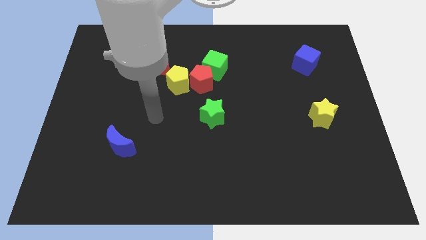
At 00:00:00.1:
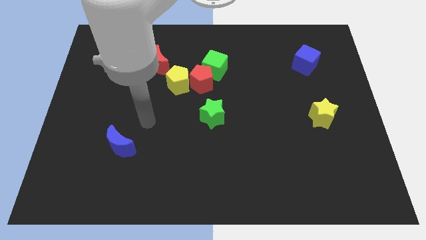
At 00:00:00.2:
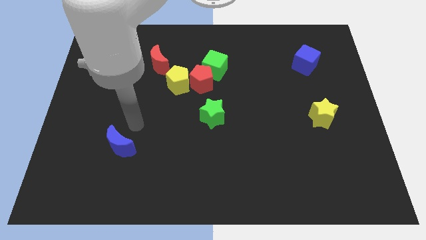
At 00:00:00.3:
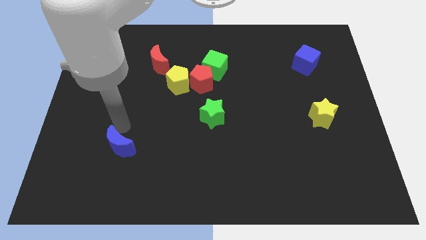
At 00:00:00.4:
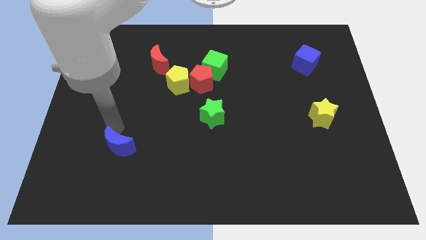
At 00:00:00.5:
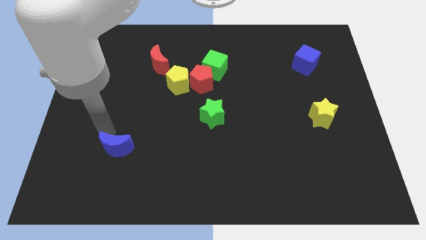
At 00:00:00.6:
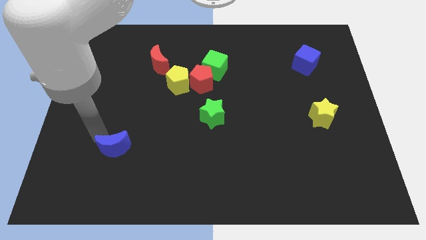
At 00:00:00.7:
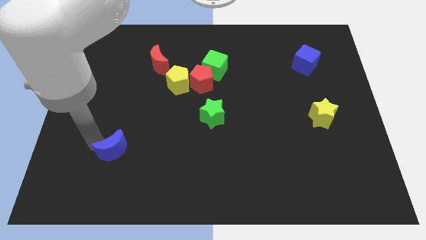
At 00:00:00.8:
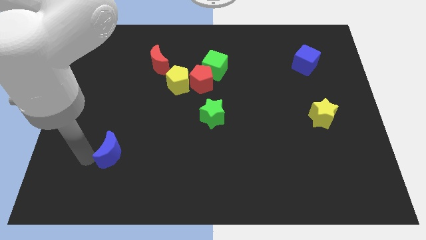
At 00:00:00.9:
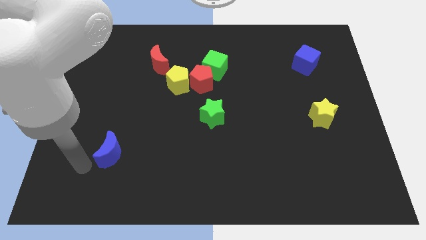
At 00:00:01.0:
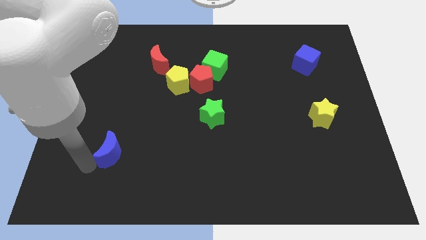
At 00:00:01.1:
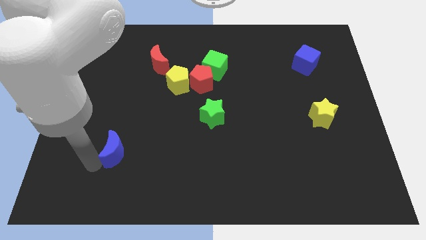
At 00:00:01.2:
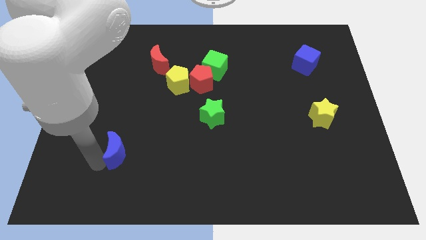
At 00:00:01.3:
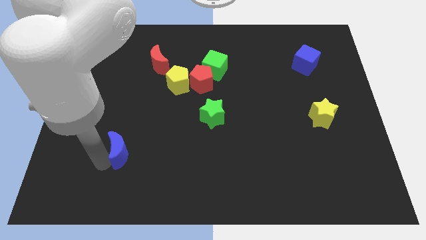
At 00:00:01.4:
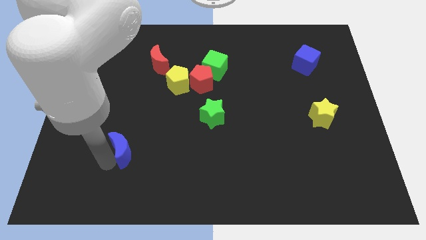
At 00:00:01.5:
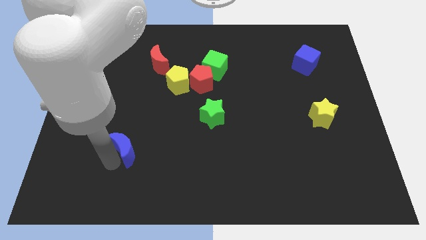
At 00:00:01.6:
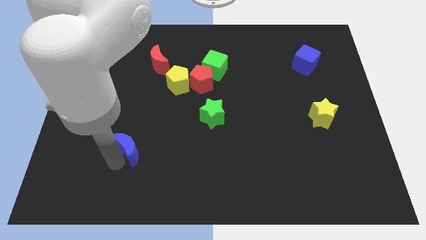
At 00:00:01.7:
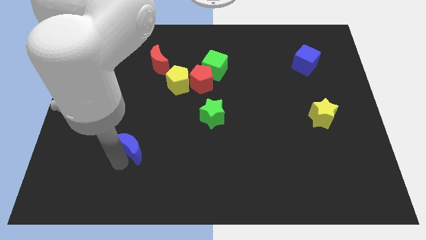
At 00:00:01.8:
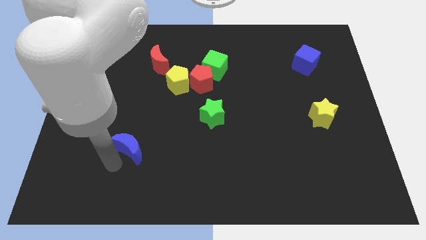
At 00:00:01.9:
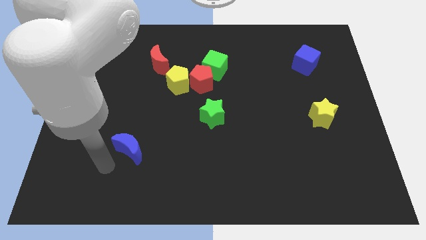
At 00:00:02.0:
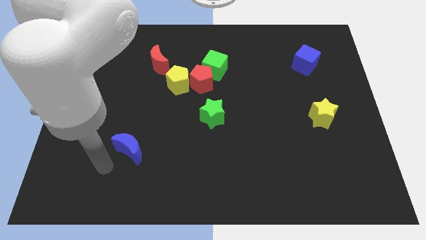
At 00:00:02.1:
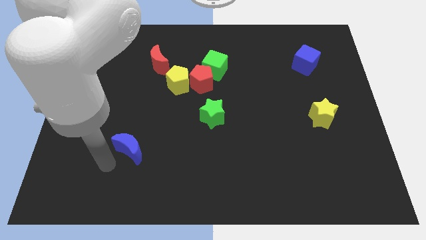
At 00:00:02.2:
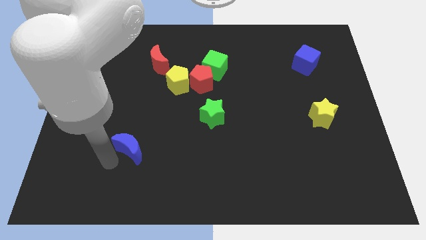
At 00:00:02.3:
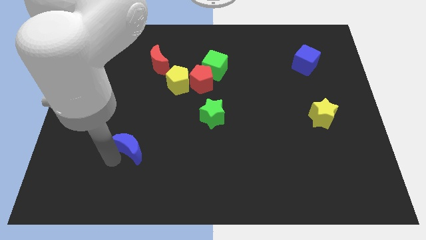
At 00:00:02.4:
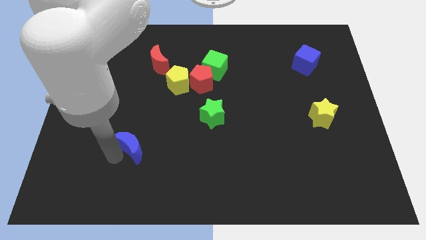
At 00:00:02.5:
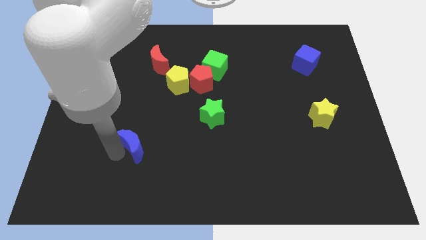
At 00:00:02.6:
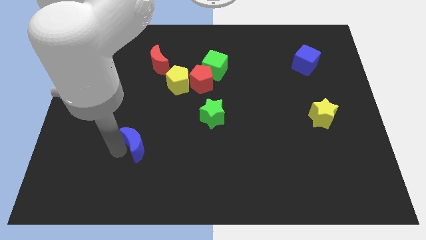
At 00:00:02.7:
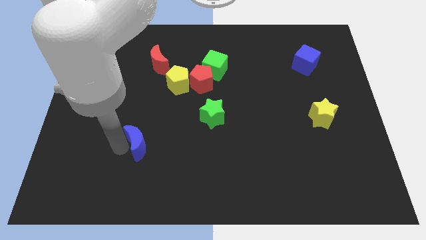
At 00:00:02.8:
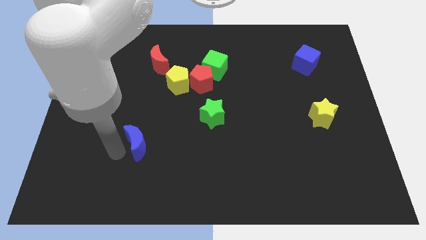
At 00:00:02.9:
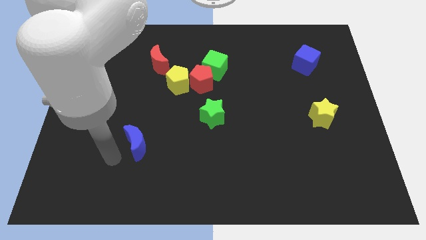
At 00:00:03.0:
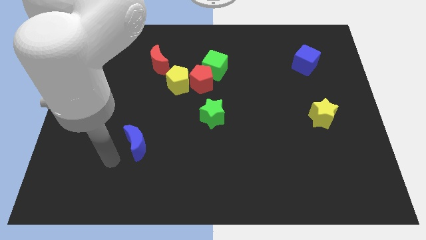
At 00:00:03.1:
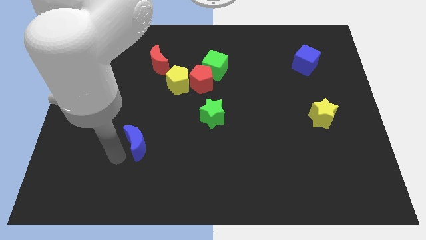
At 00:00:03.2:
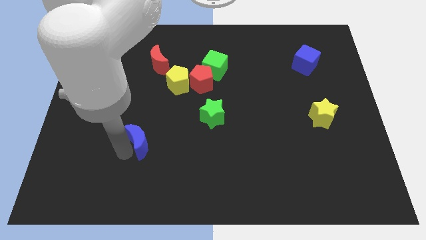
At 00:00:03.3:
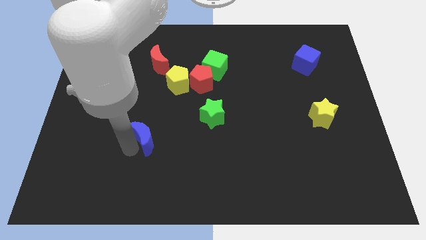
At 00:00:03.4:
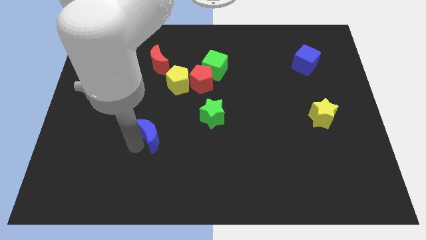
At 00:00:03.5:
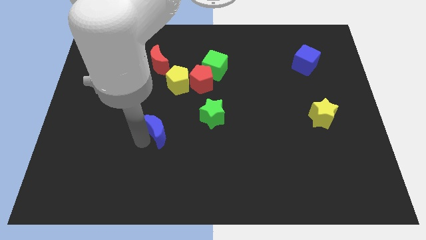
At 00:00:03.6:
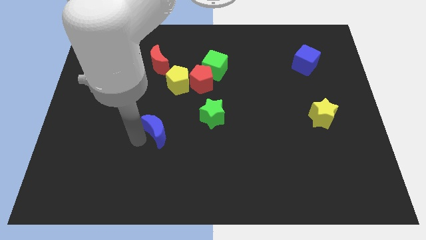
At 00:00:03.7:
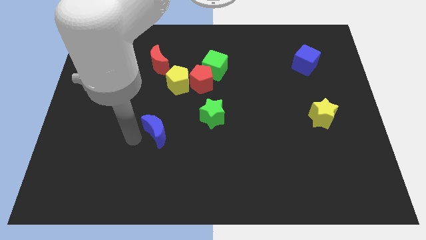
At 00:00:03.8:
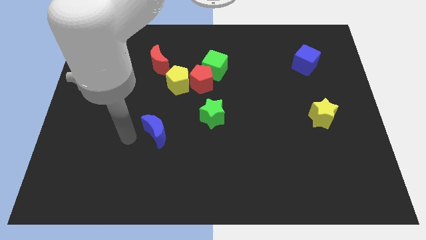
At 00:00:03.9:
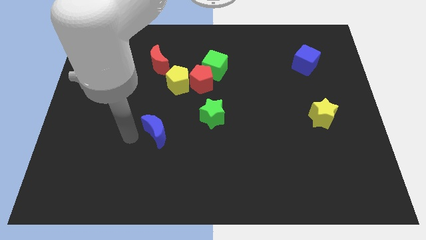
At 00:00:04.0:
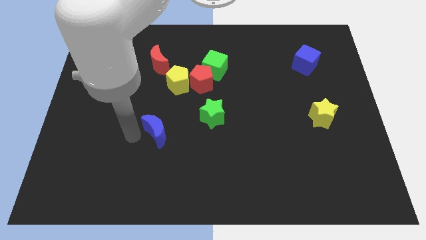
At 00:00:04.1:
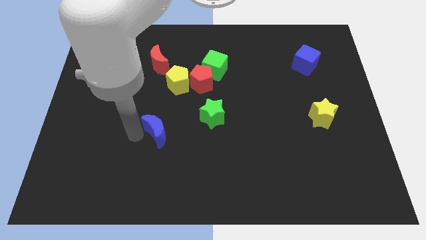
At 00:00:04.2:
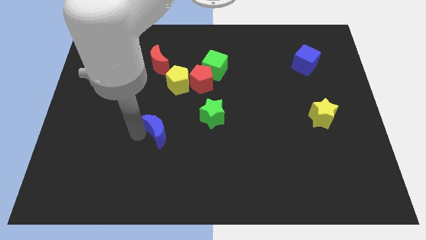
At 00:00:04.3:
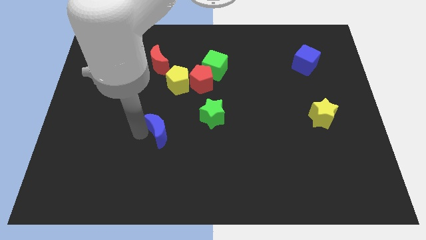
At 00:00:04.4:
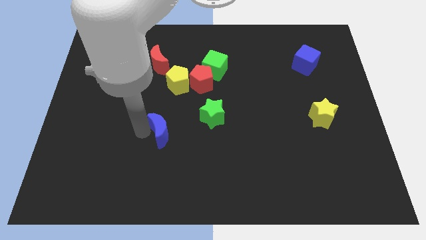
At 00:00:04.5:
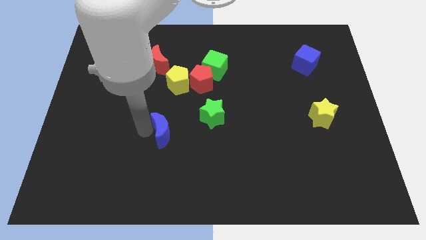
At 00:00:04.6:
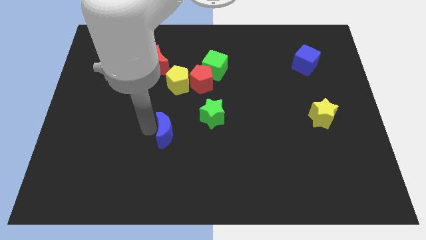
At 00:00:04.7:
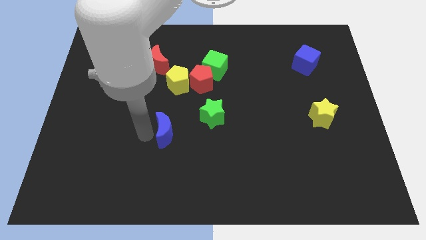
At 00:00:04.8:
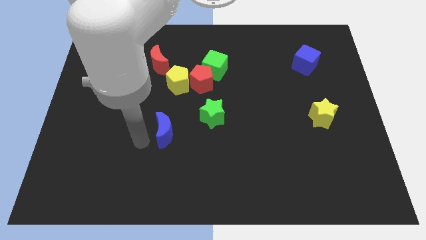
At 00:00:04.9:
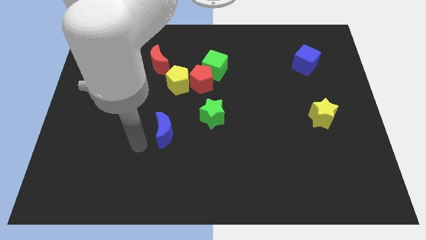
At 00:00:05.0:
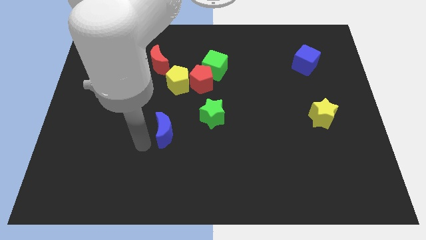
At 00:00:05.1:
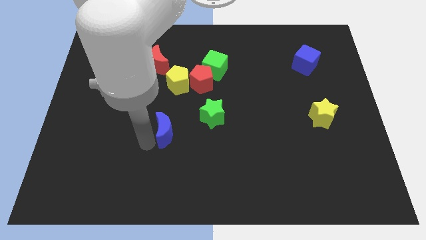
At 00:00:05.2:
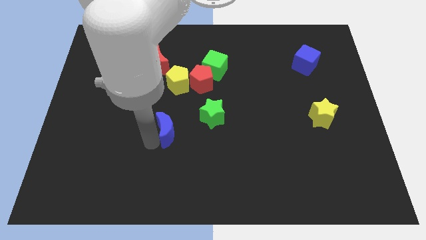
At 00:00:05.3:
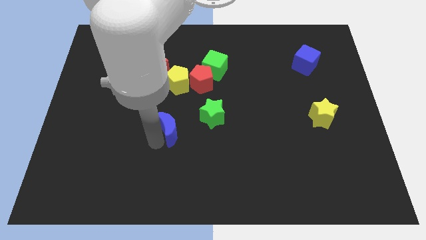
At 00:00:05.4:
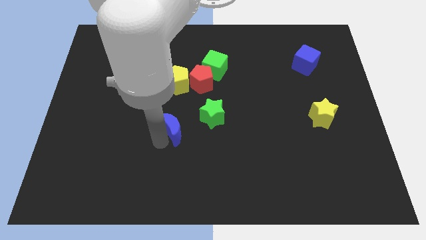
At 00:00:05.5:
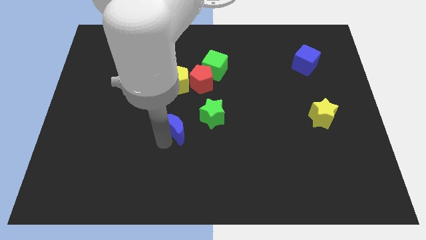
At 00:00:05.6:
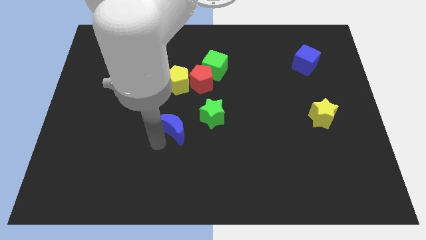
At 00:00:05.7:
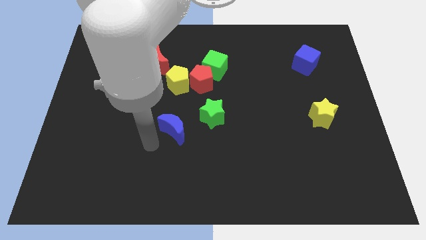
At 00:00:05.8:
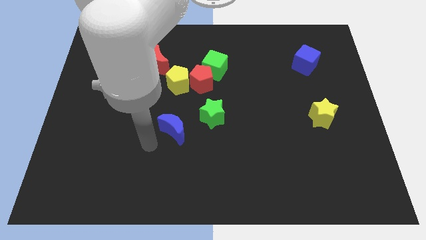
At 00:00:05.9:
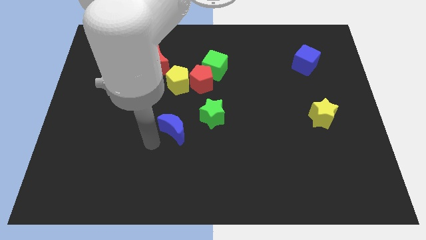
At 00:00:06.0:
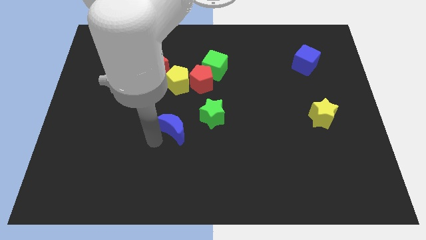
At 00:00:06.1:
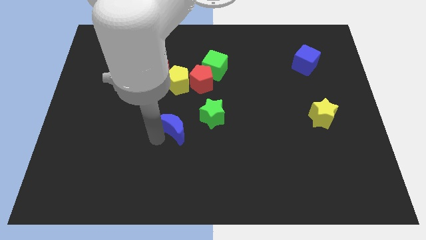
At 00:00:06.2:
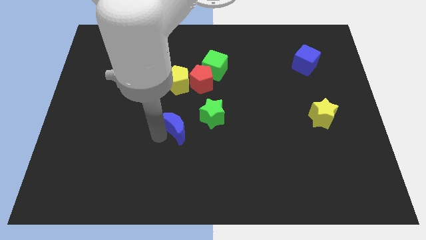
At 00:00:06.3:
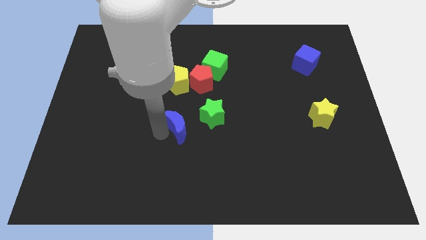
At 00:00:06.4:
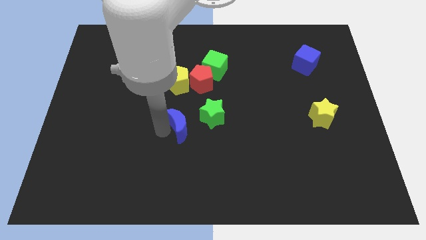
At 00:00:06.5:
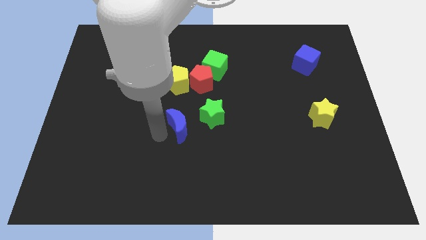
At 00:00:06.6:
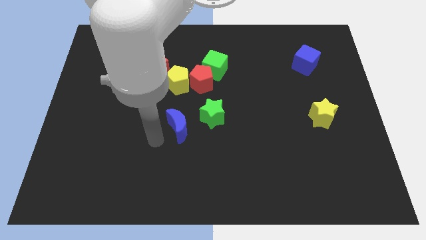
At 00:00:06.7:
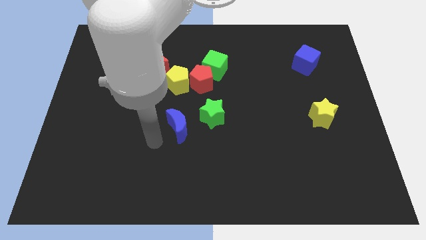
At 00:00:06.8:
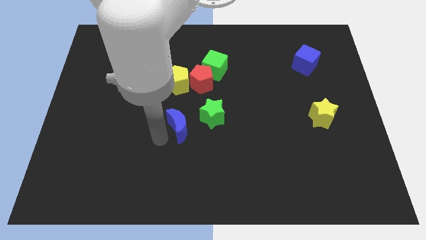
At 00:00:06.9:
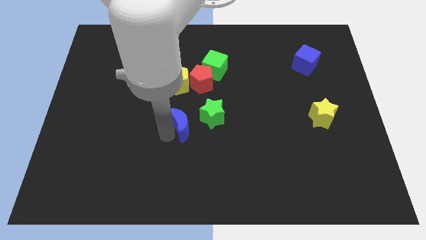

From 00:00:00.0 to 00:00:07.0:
slide the blue moon to the bottom of the red pentagon
